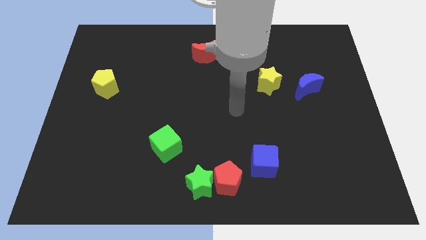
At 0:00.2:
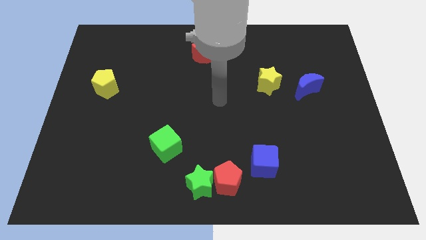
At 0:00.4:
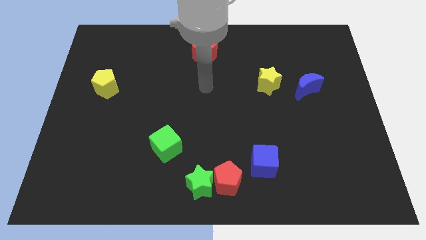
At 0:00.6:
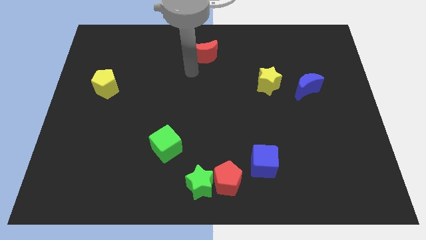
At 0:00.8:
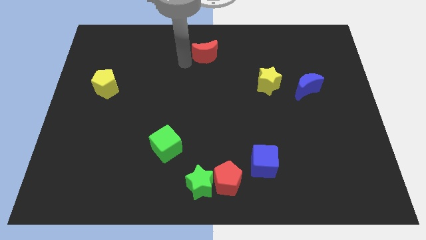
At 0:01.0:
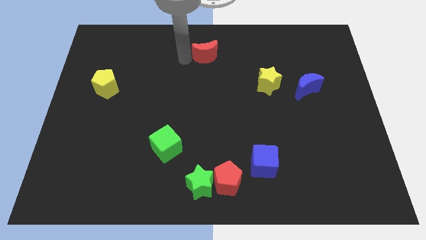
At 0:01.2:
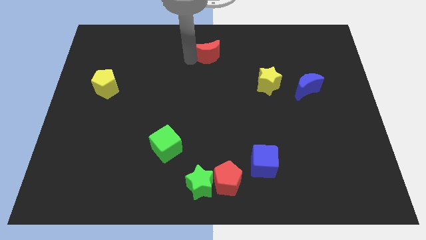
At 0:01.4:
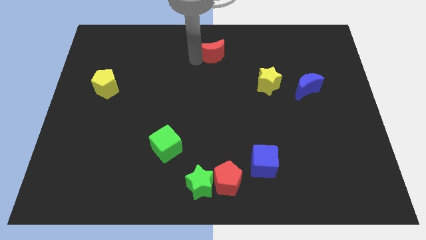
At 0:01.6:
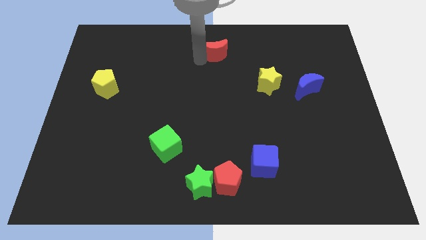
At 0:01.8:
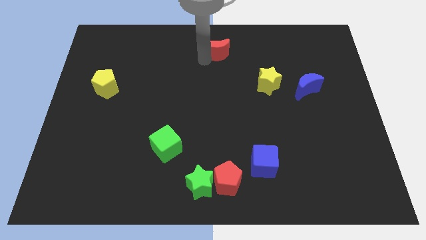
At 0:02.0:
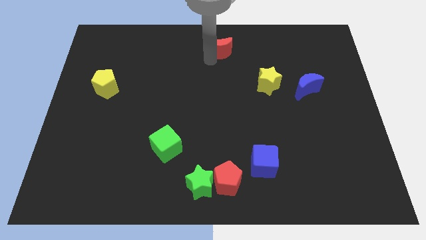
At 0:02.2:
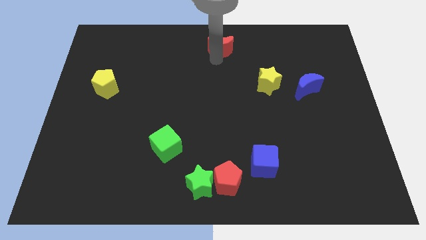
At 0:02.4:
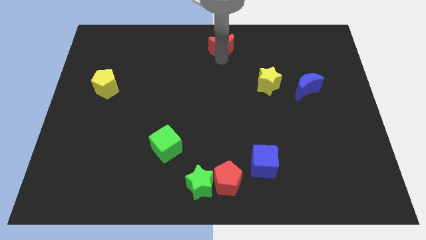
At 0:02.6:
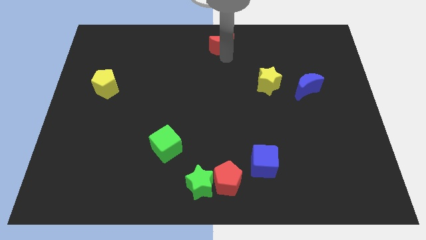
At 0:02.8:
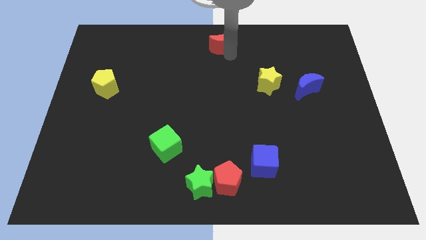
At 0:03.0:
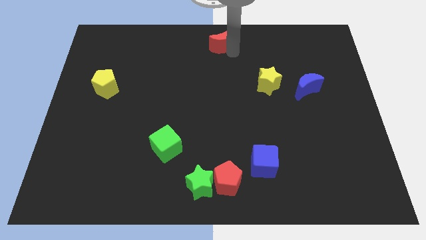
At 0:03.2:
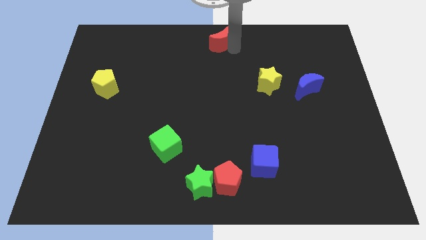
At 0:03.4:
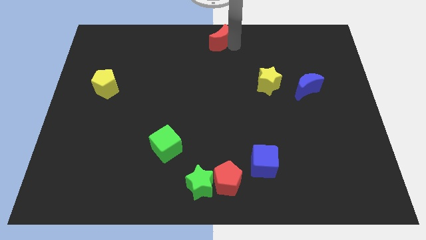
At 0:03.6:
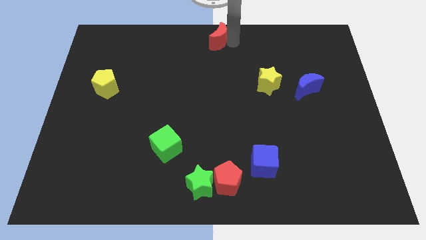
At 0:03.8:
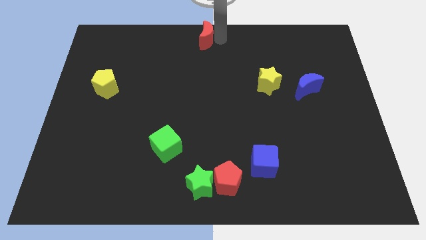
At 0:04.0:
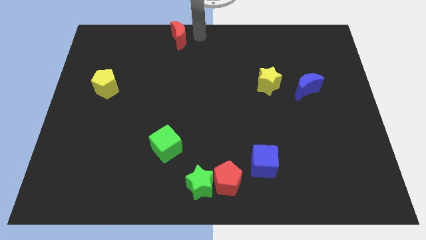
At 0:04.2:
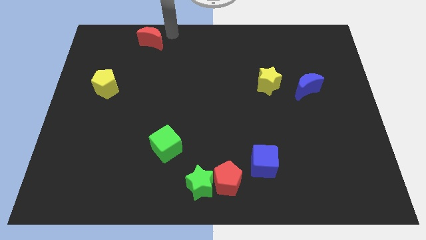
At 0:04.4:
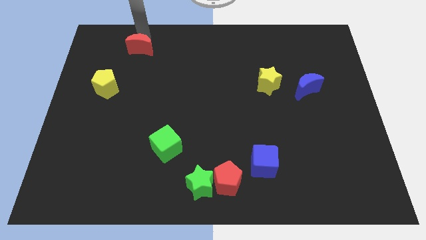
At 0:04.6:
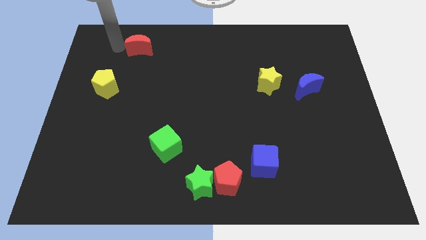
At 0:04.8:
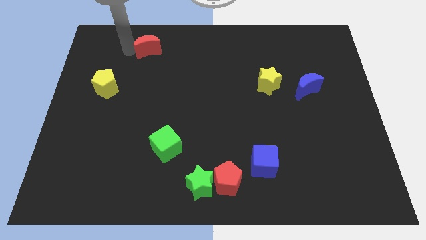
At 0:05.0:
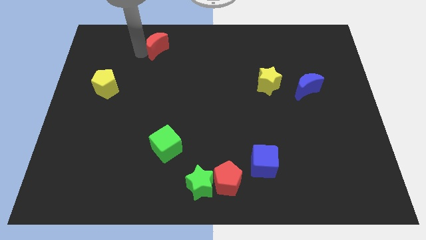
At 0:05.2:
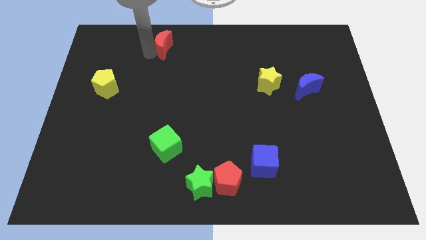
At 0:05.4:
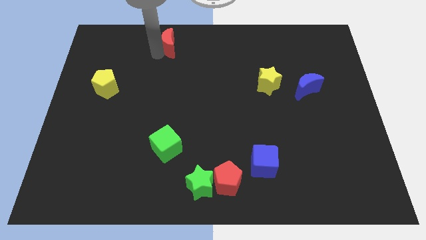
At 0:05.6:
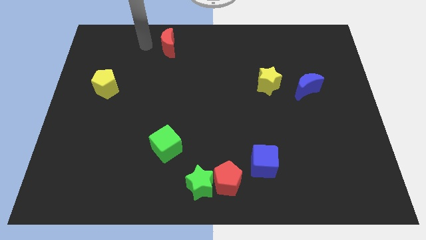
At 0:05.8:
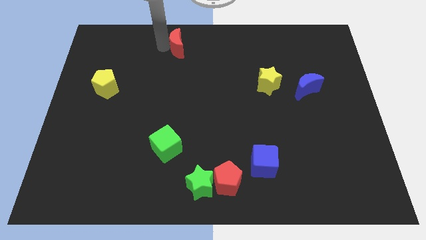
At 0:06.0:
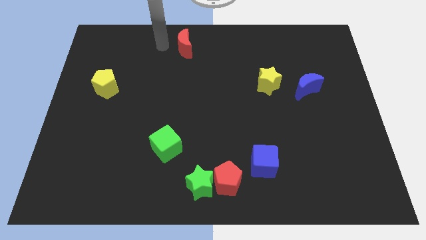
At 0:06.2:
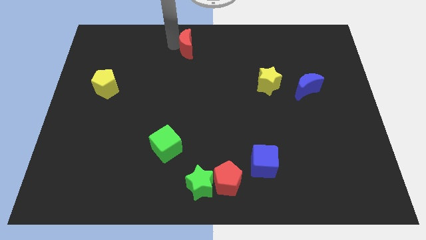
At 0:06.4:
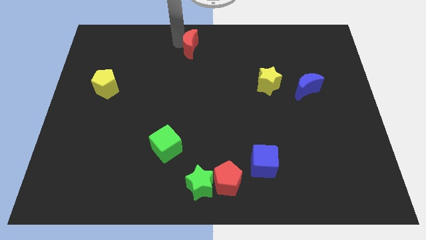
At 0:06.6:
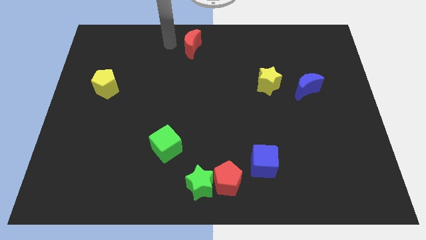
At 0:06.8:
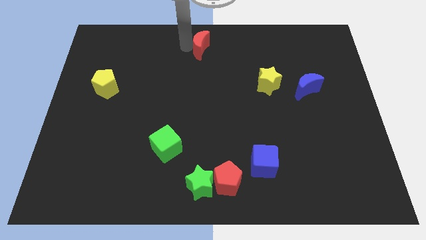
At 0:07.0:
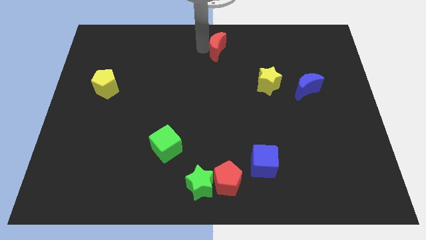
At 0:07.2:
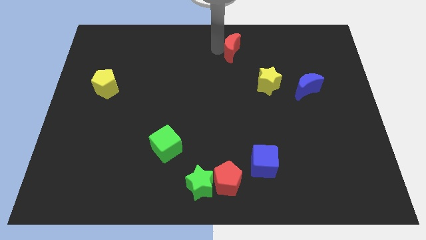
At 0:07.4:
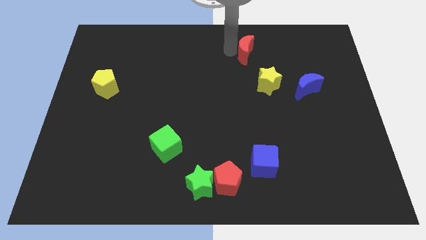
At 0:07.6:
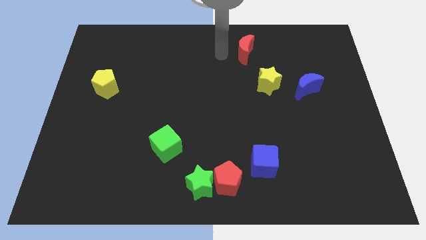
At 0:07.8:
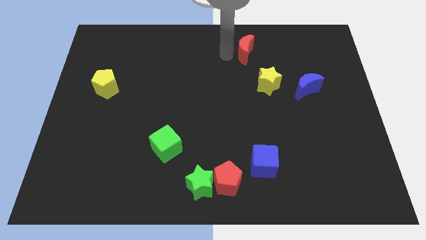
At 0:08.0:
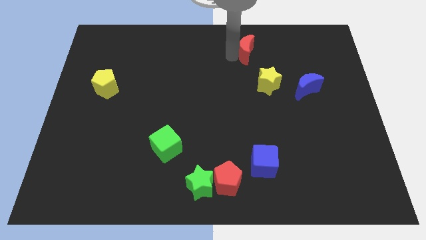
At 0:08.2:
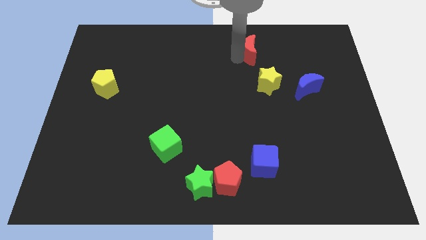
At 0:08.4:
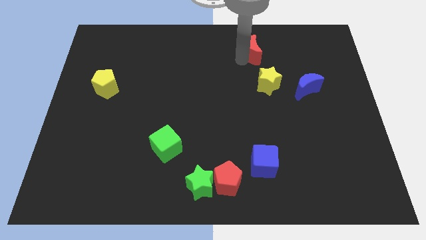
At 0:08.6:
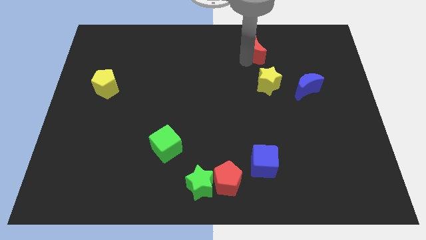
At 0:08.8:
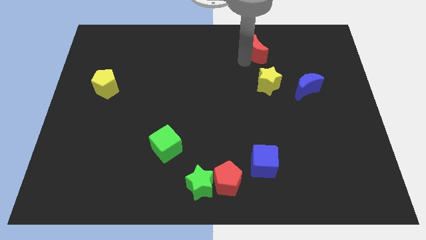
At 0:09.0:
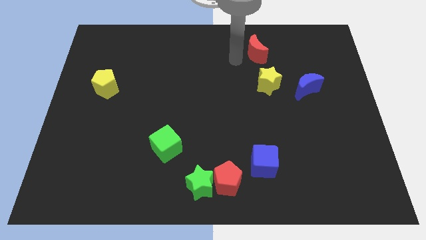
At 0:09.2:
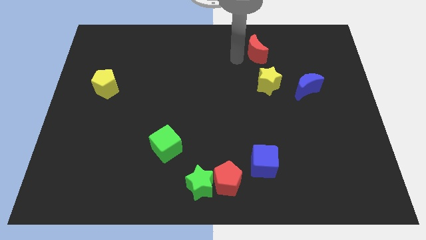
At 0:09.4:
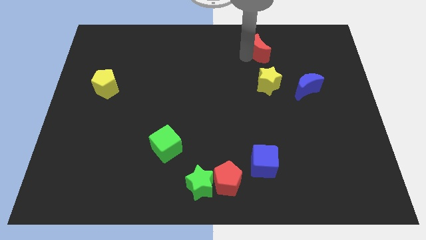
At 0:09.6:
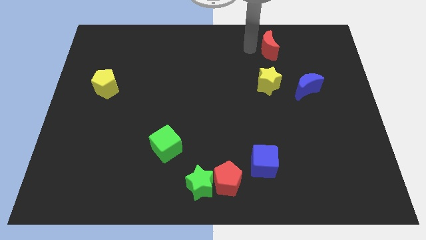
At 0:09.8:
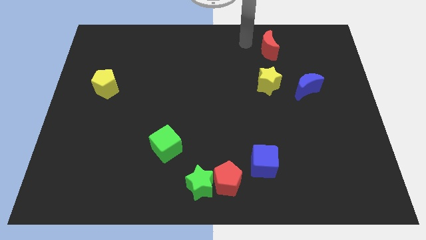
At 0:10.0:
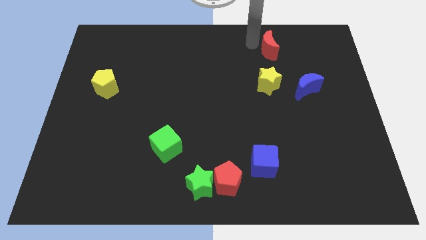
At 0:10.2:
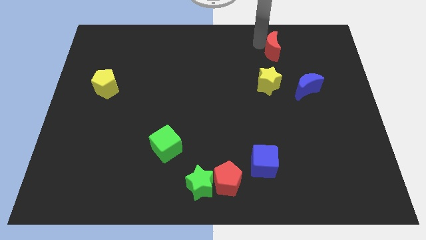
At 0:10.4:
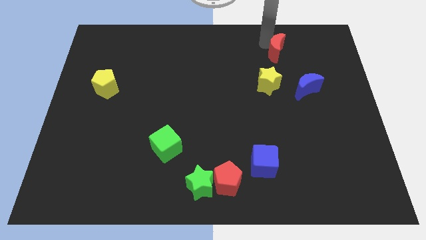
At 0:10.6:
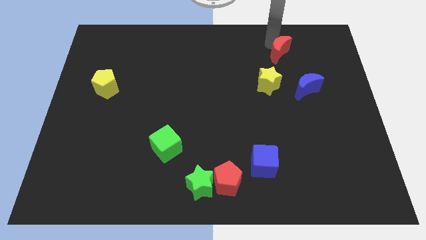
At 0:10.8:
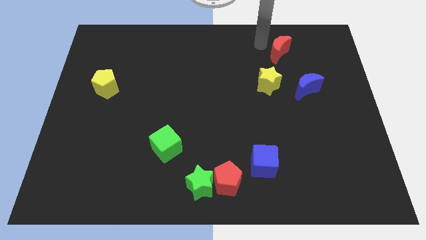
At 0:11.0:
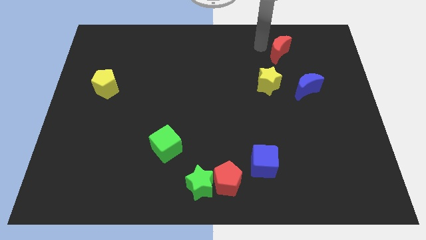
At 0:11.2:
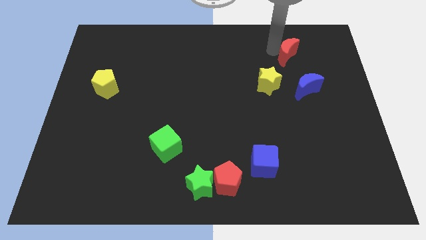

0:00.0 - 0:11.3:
put the red moon above the blue moon

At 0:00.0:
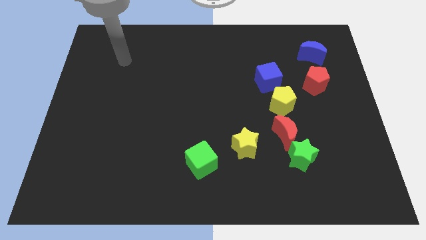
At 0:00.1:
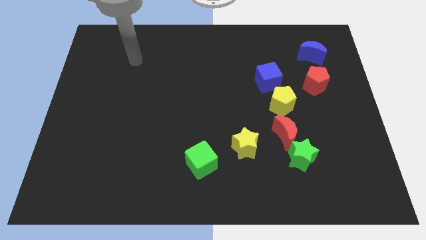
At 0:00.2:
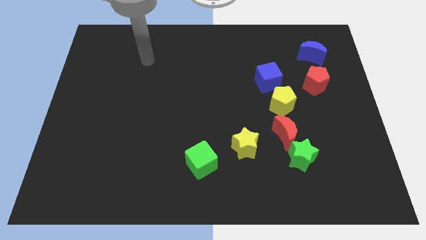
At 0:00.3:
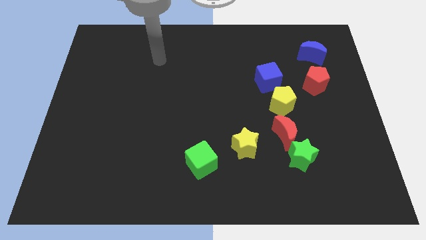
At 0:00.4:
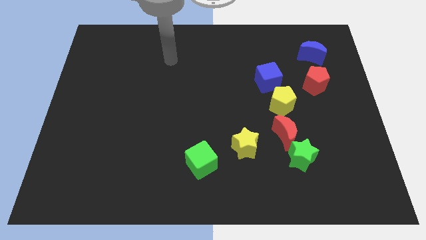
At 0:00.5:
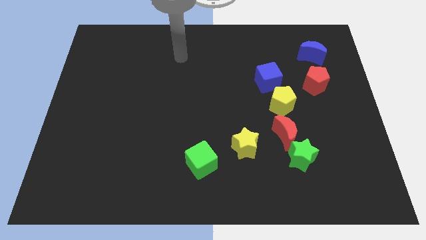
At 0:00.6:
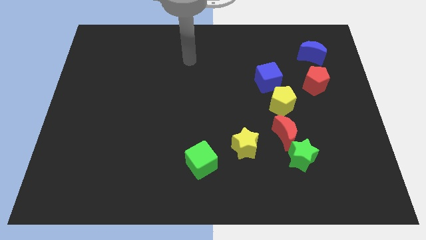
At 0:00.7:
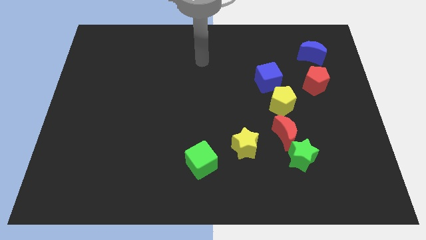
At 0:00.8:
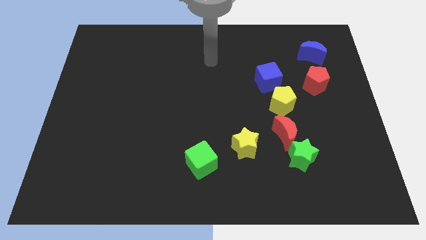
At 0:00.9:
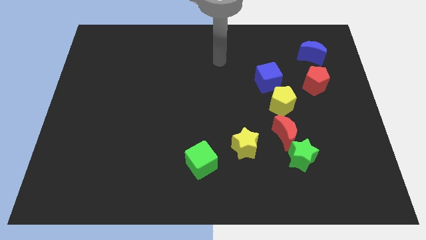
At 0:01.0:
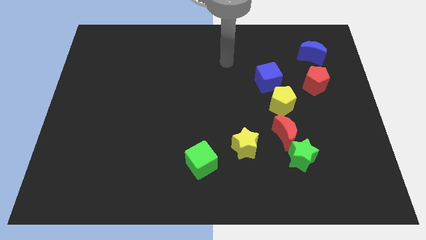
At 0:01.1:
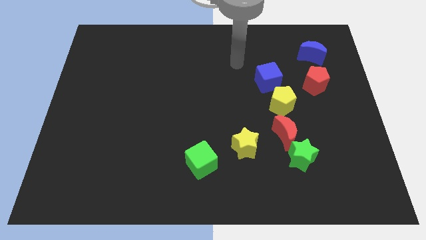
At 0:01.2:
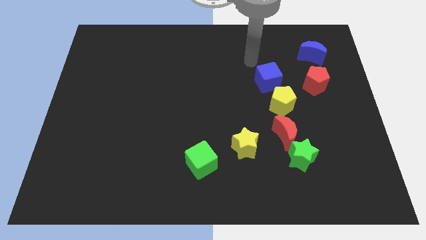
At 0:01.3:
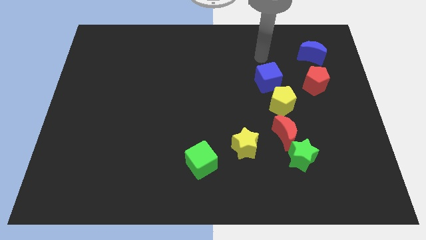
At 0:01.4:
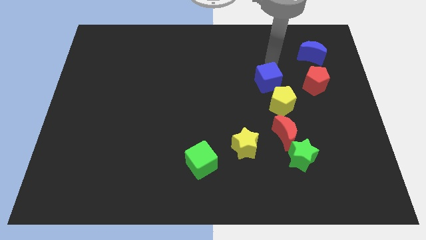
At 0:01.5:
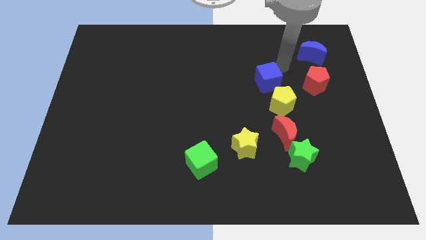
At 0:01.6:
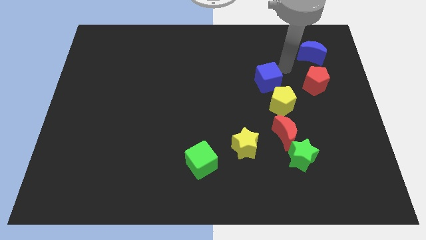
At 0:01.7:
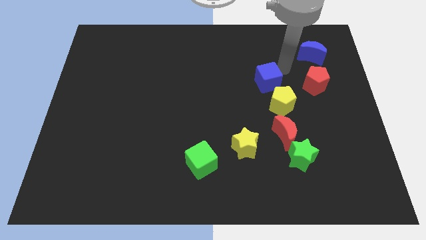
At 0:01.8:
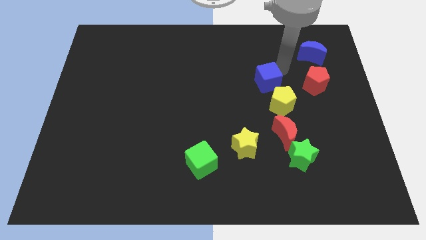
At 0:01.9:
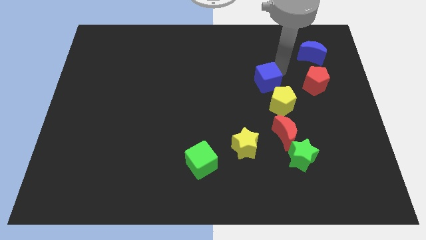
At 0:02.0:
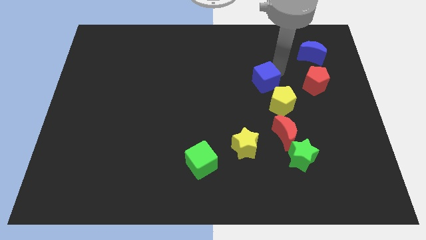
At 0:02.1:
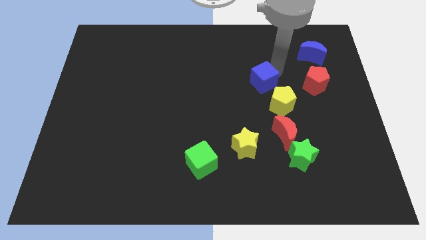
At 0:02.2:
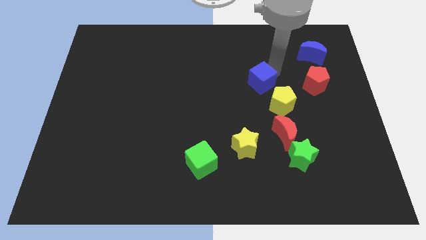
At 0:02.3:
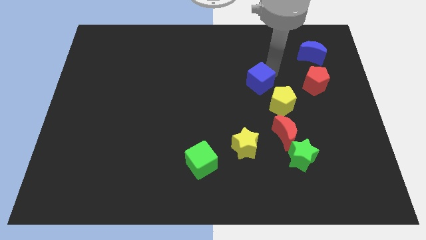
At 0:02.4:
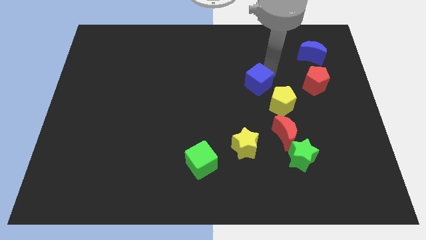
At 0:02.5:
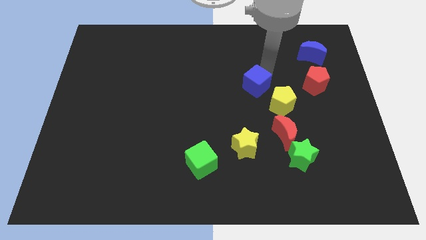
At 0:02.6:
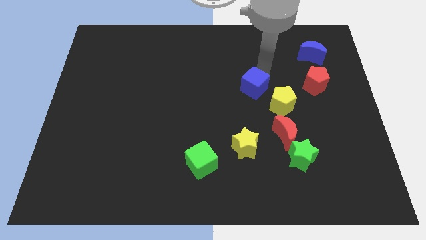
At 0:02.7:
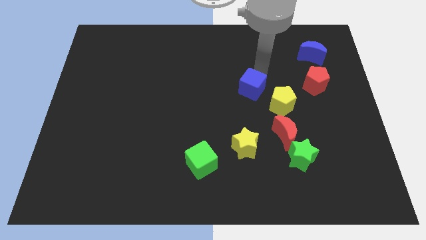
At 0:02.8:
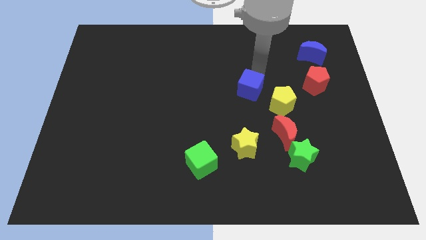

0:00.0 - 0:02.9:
put the blue cube just left of the yellow pentagon
